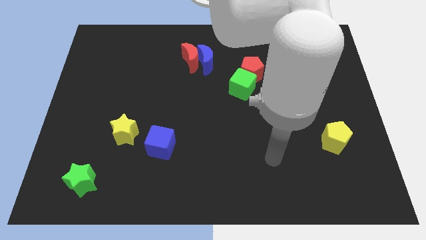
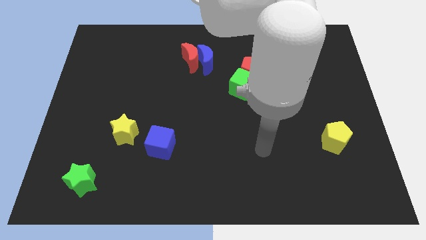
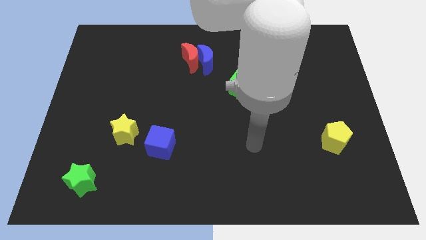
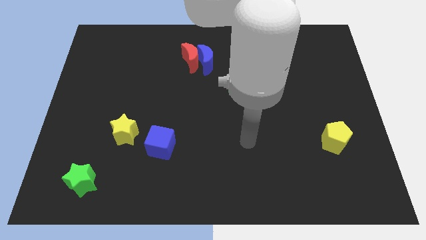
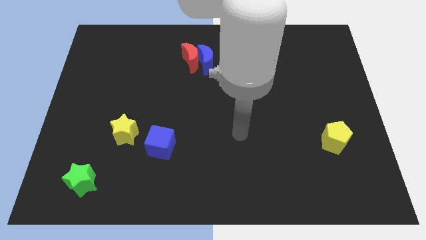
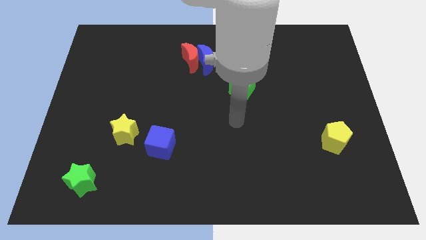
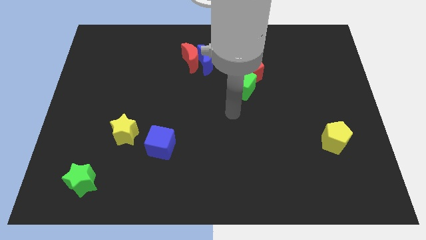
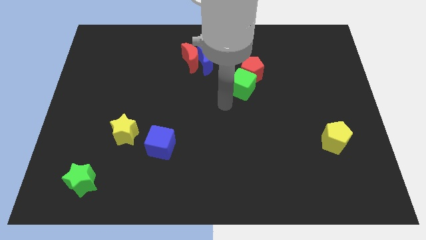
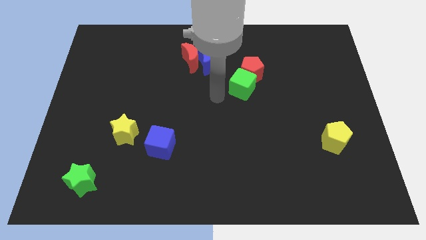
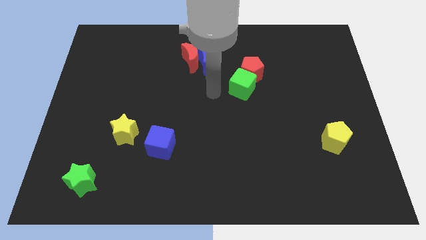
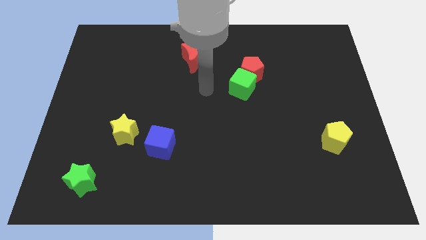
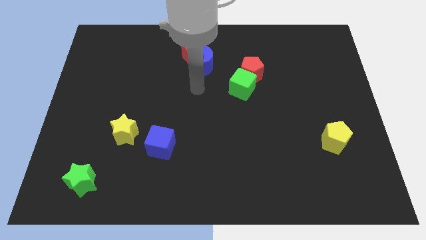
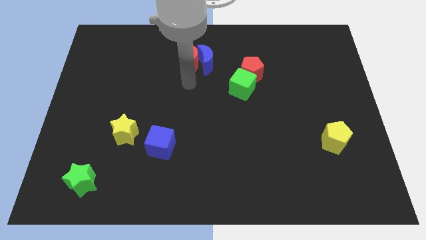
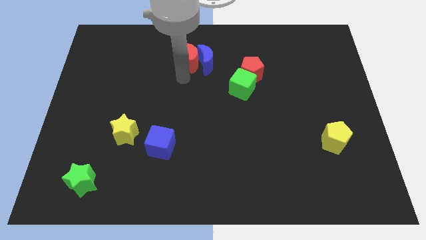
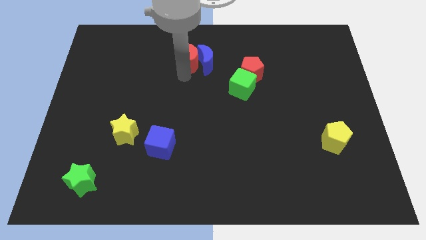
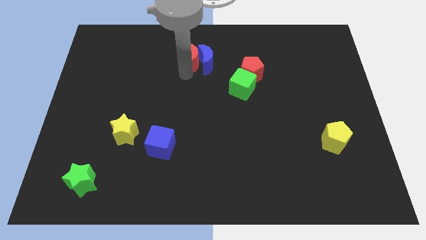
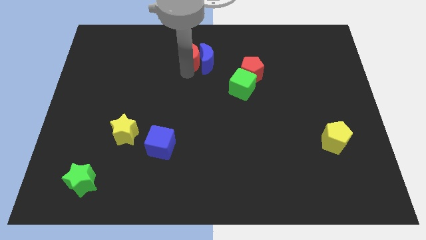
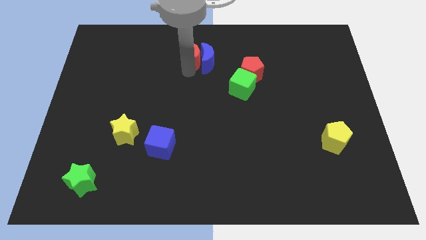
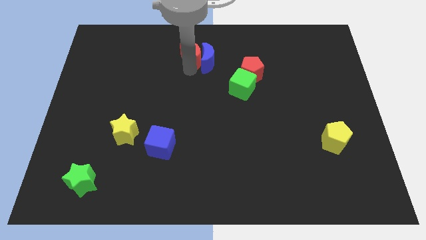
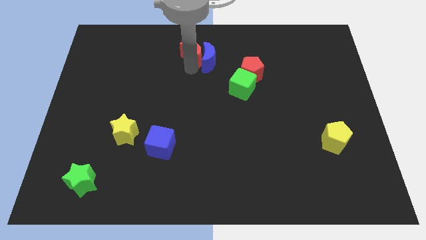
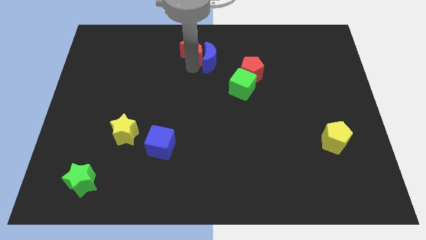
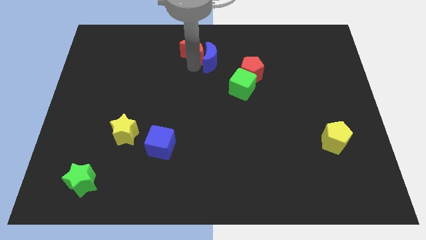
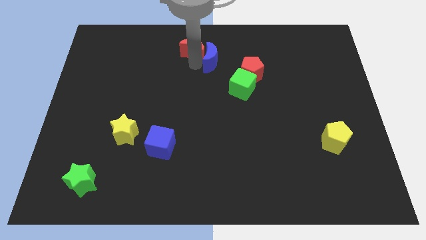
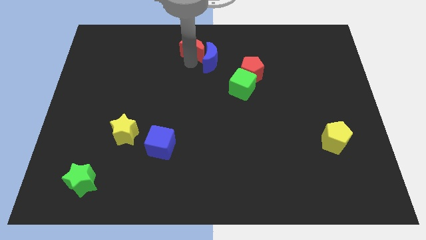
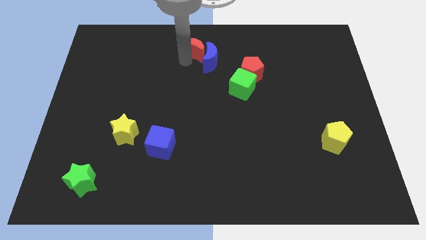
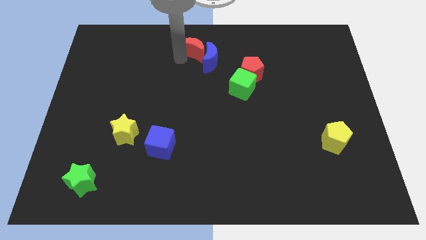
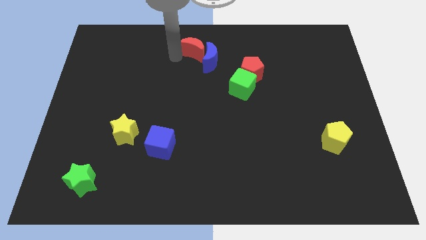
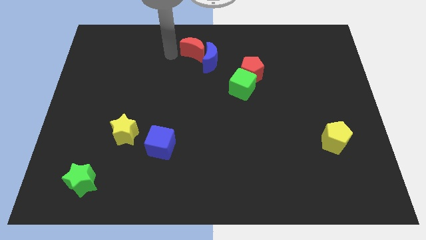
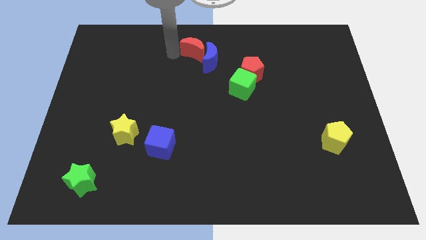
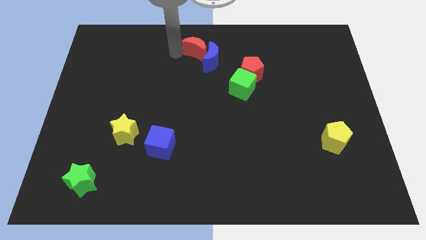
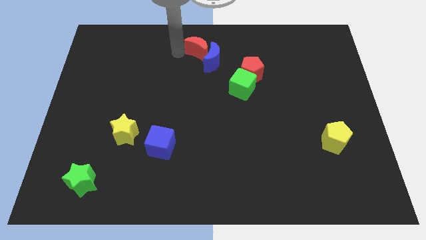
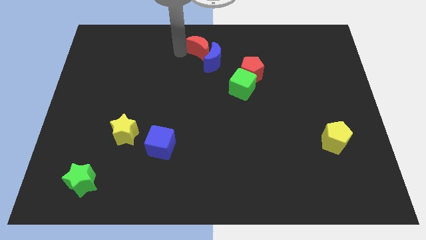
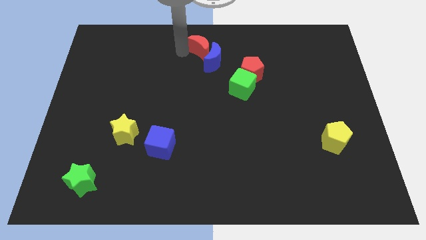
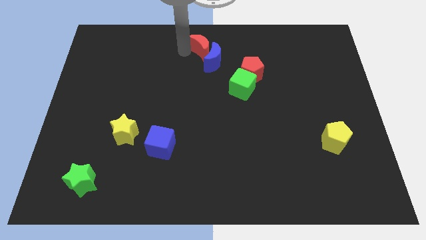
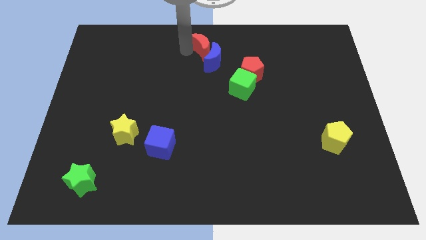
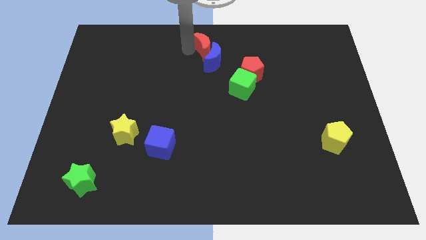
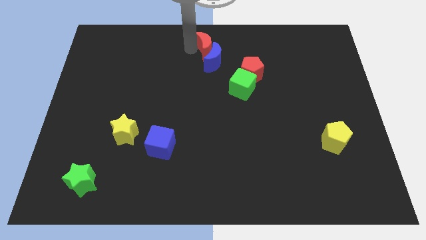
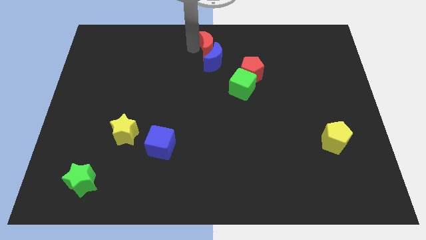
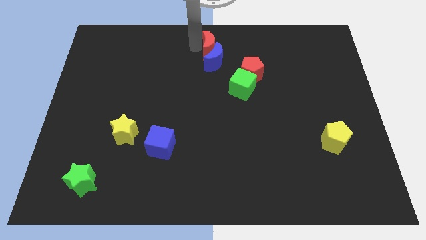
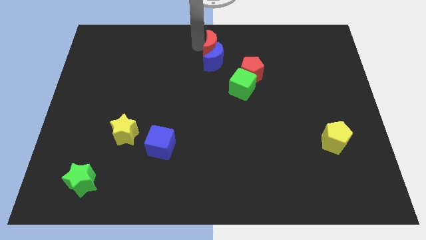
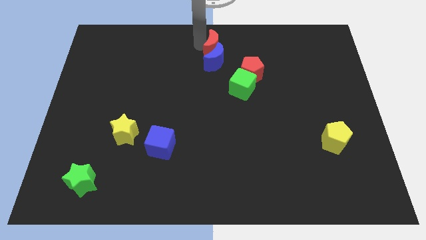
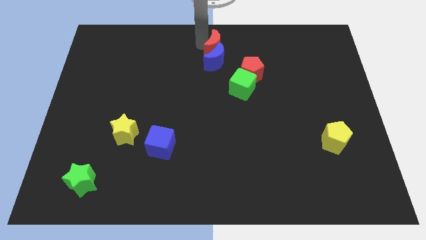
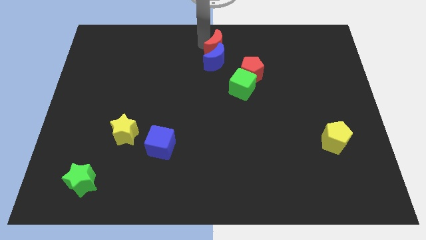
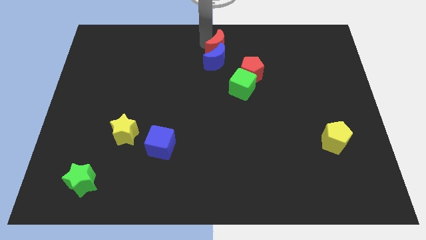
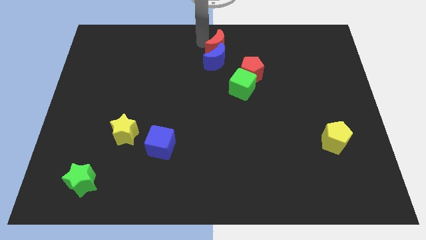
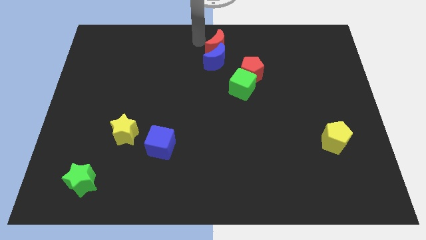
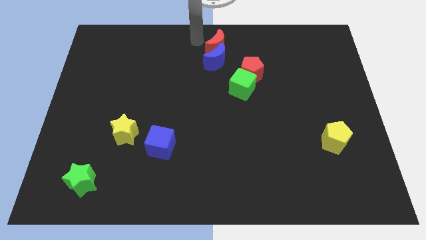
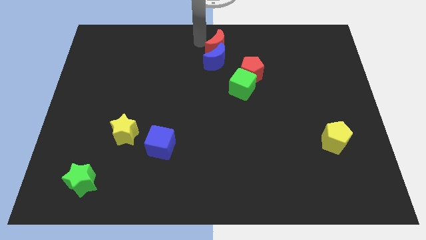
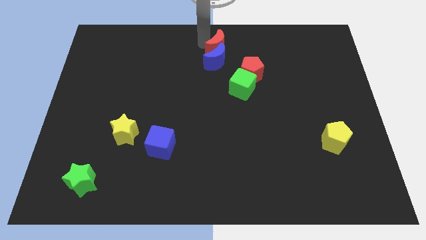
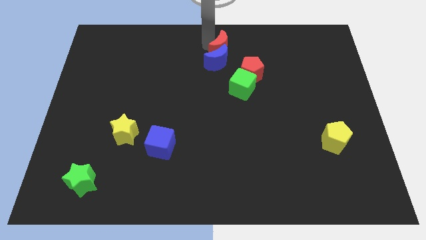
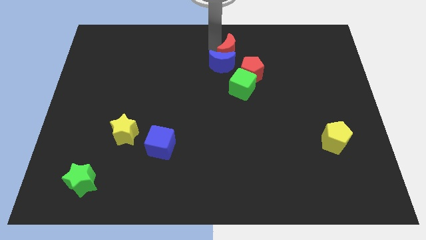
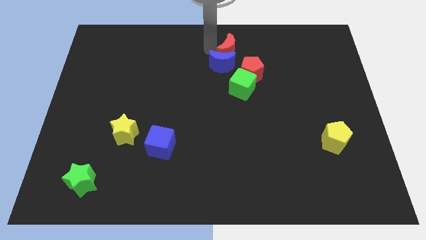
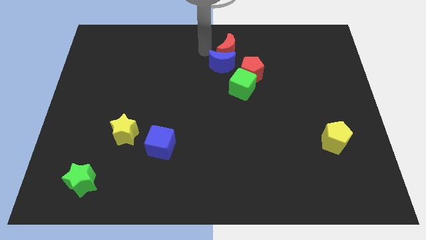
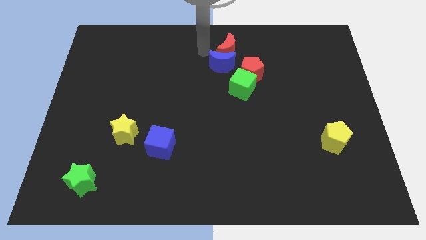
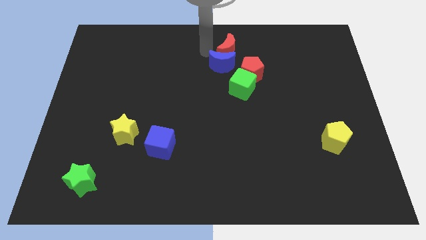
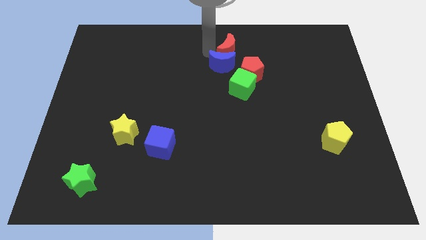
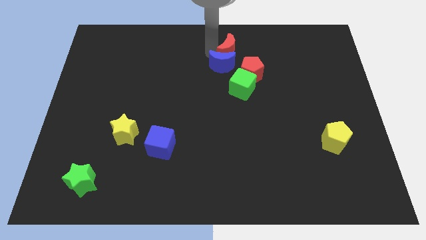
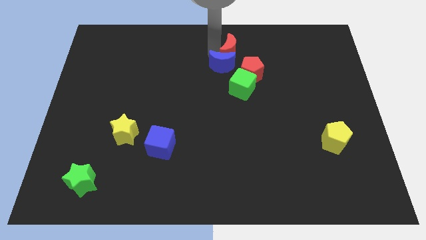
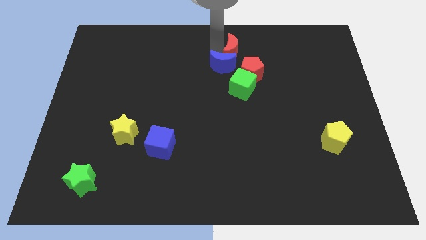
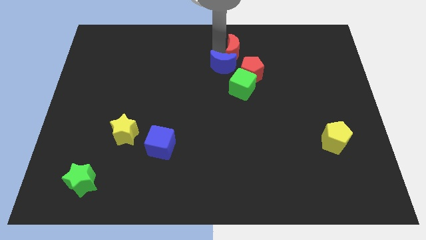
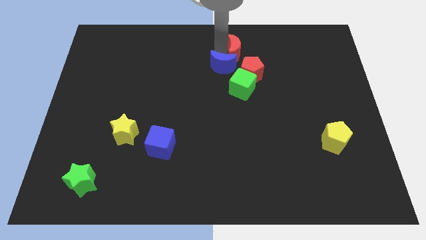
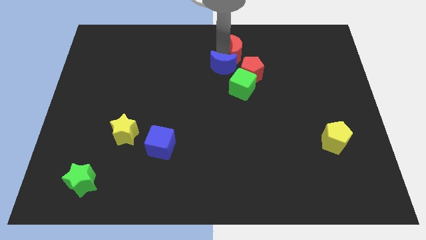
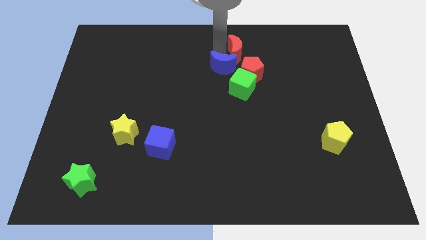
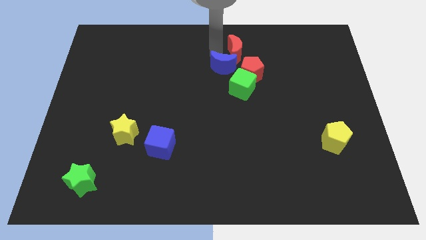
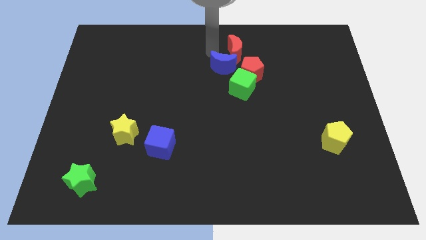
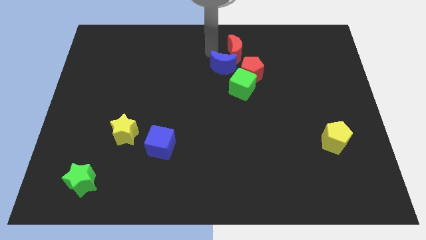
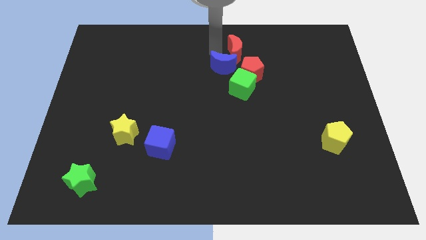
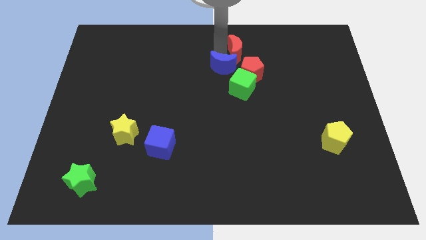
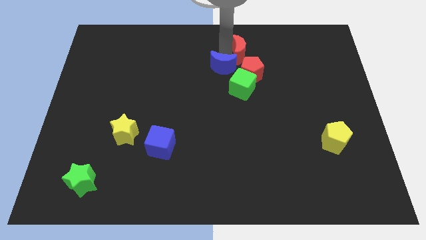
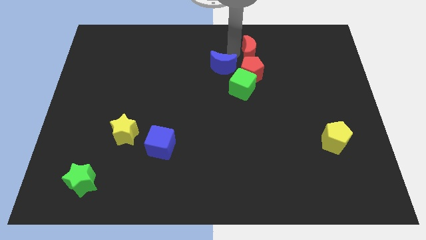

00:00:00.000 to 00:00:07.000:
slide the red moon to the top right side of the red pentagon

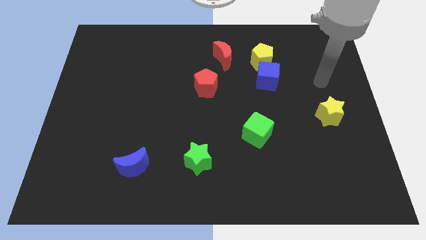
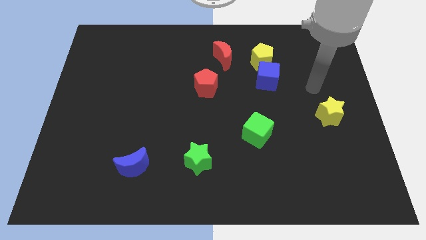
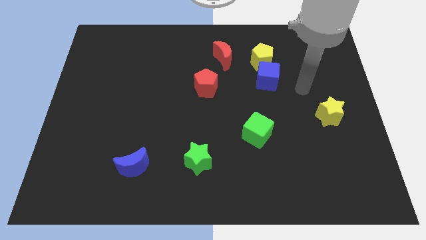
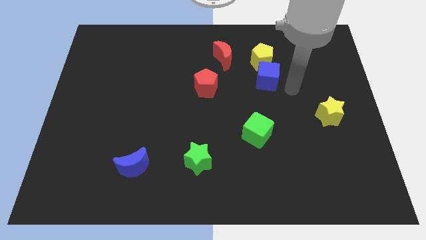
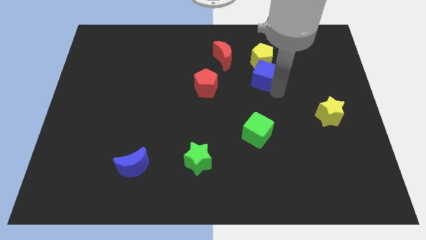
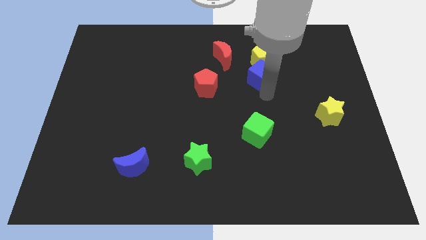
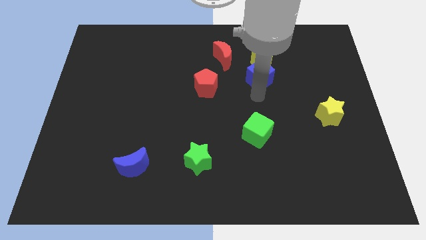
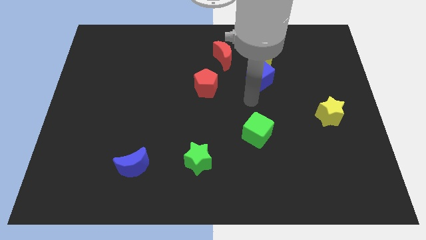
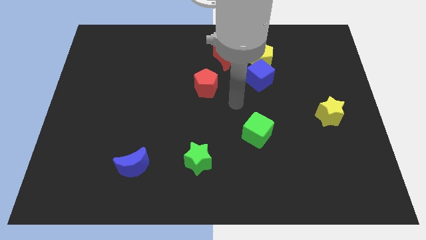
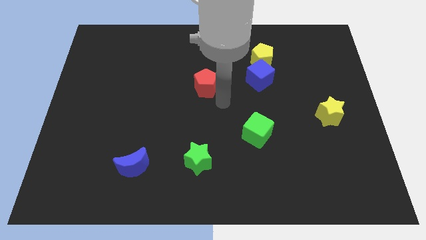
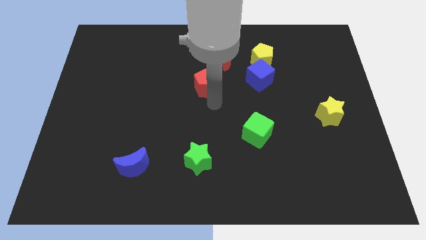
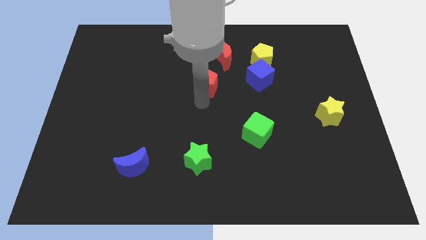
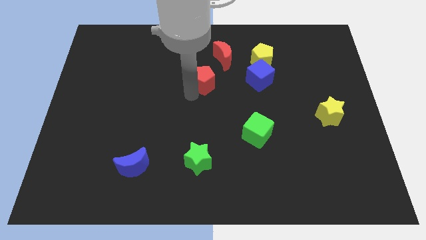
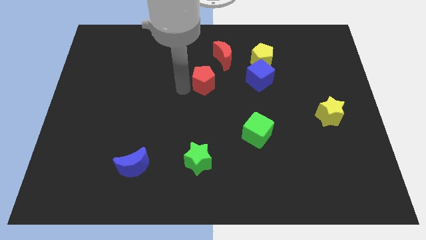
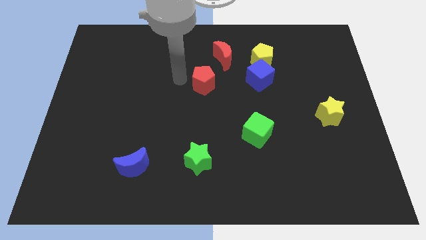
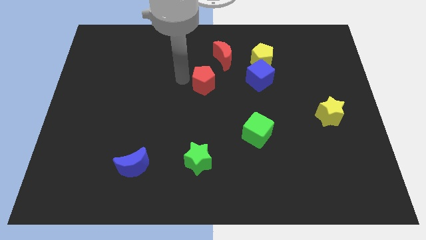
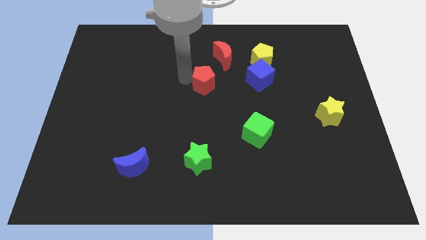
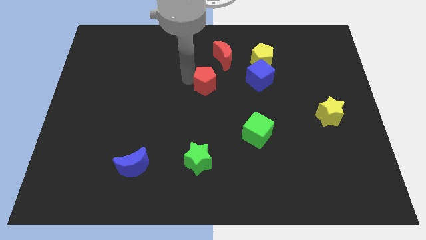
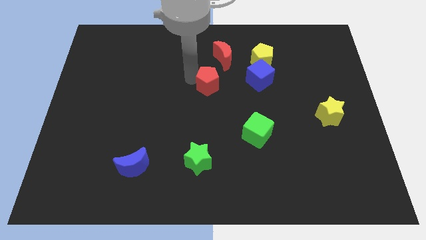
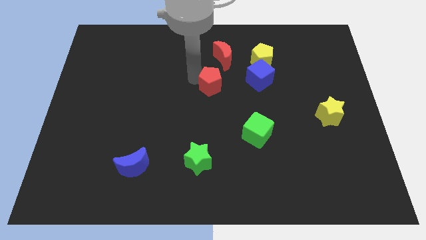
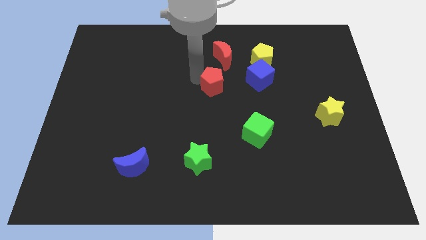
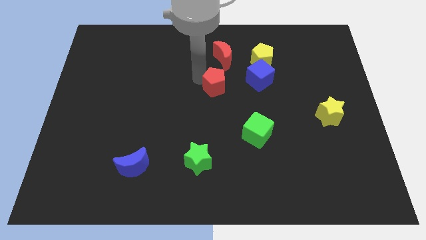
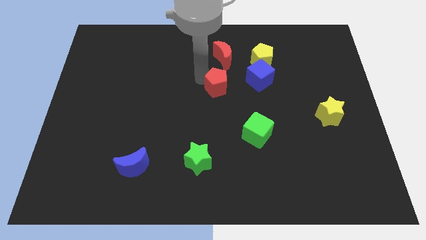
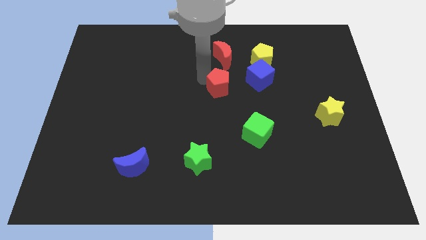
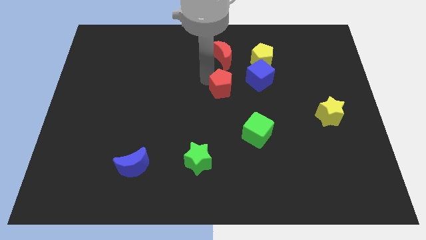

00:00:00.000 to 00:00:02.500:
put the red pentagon to the bottom left of the blue cube
